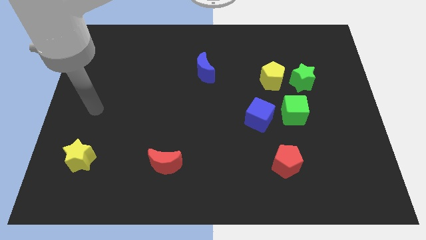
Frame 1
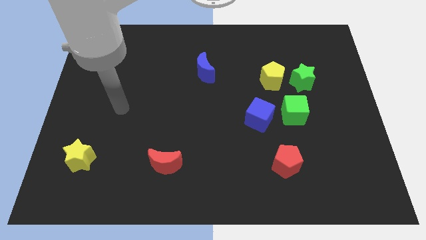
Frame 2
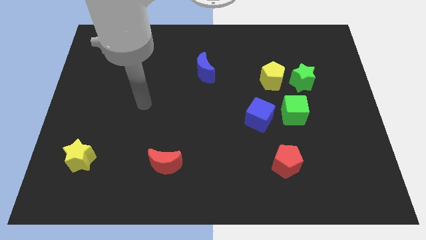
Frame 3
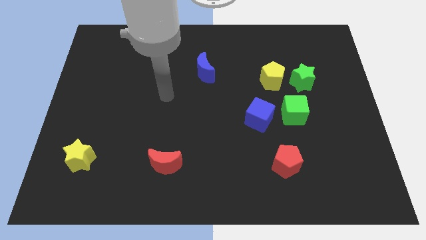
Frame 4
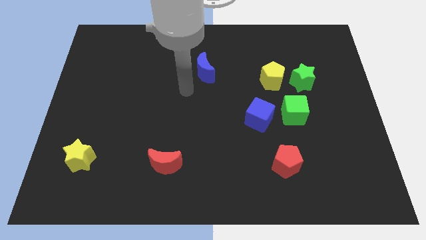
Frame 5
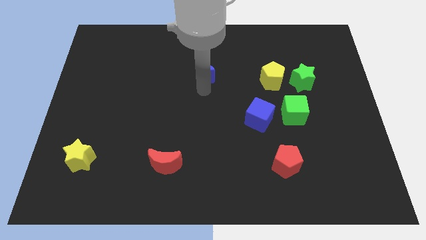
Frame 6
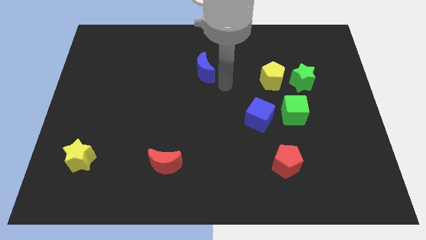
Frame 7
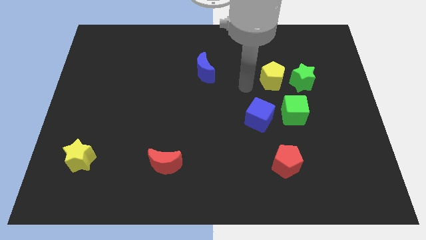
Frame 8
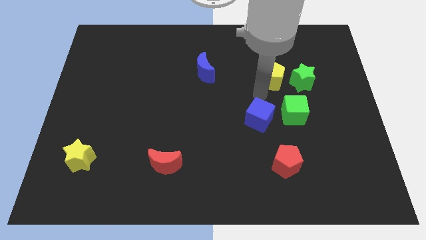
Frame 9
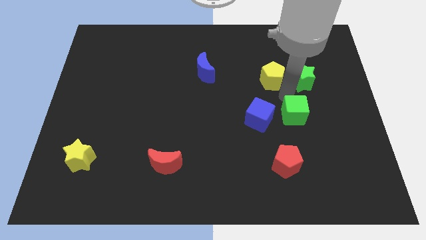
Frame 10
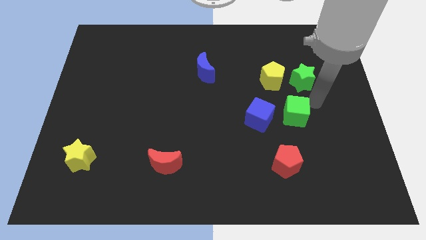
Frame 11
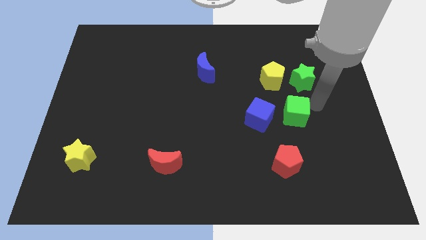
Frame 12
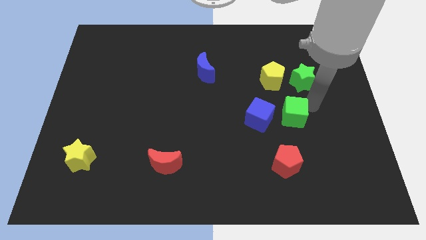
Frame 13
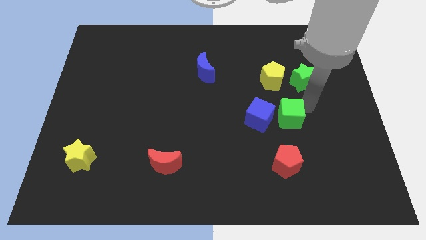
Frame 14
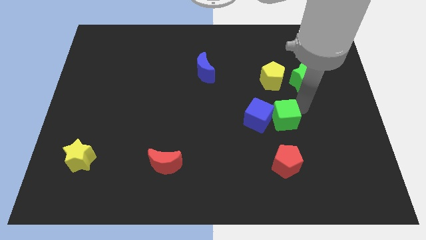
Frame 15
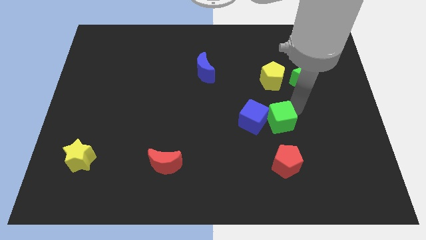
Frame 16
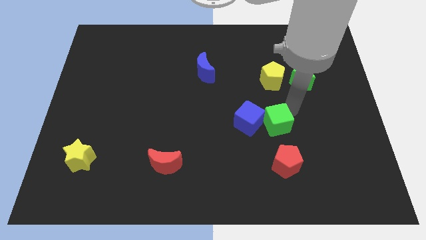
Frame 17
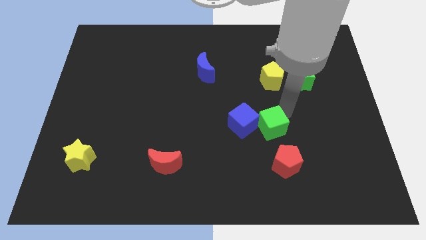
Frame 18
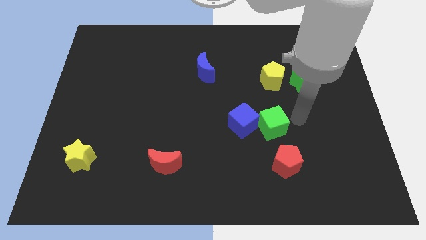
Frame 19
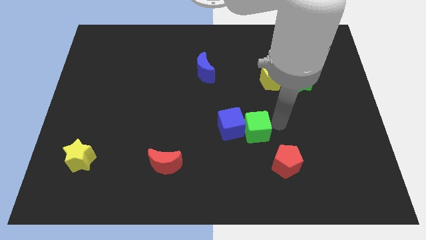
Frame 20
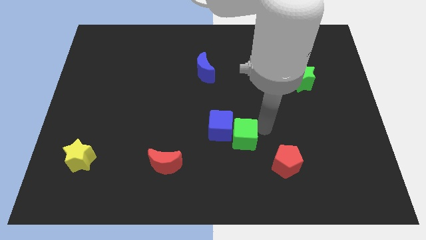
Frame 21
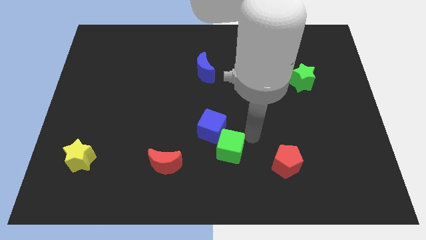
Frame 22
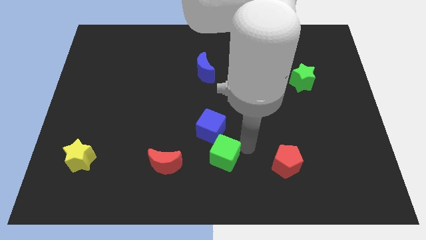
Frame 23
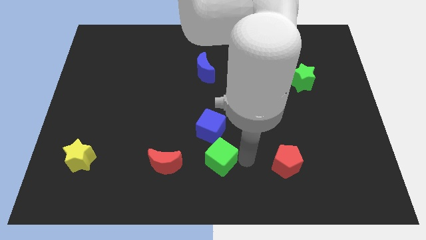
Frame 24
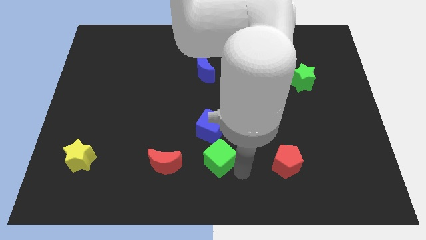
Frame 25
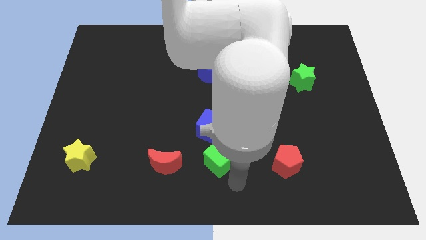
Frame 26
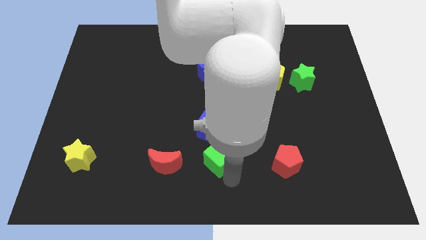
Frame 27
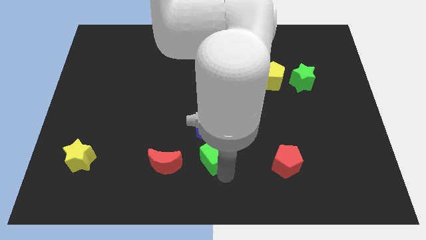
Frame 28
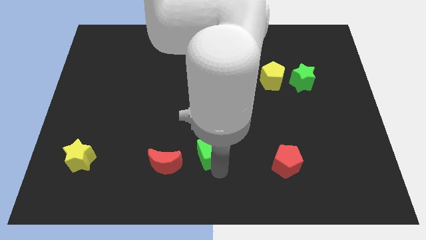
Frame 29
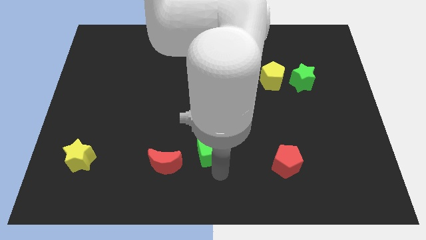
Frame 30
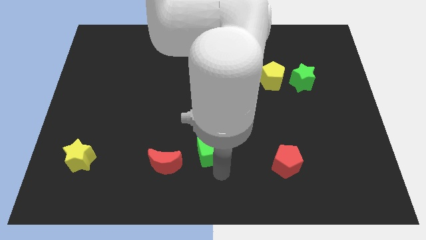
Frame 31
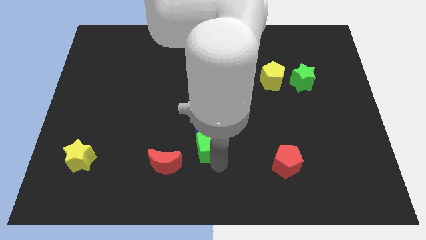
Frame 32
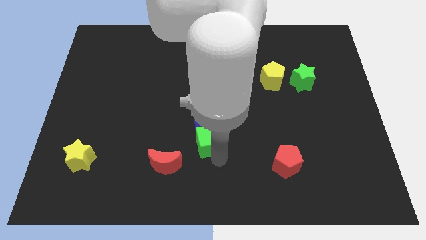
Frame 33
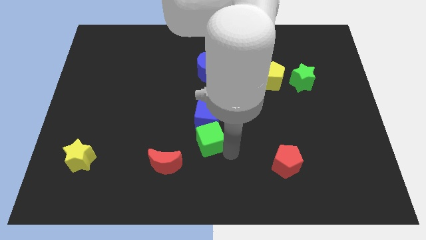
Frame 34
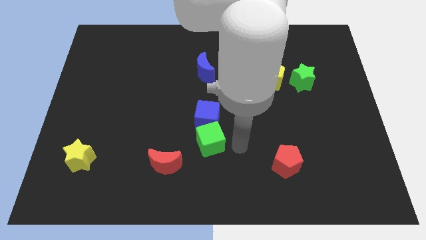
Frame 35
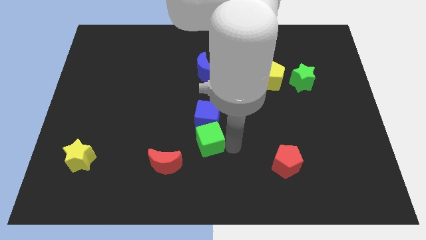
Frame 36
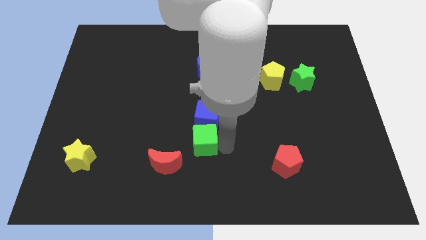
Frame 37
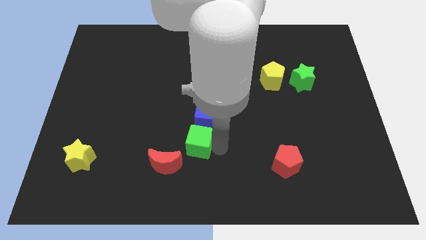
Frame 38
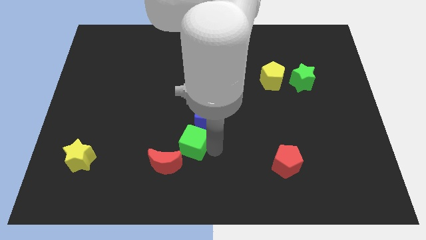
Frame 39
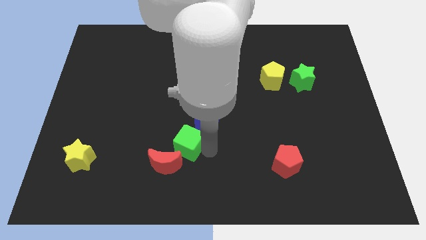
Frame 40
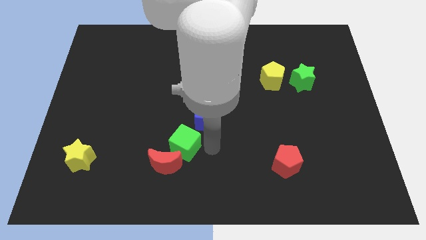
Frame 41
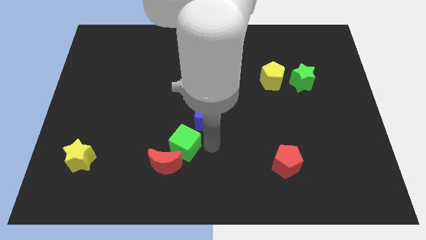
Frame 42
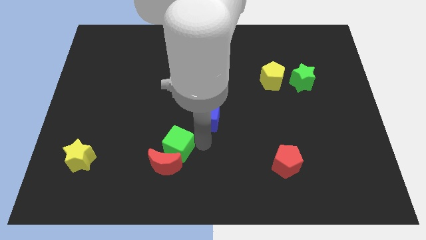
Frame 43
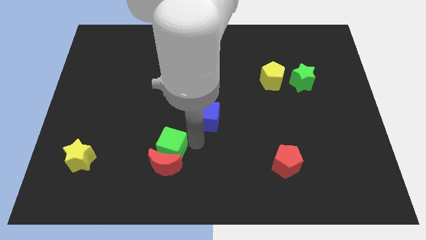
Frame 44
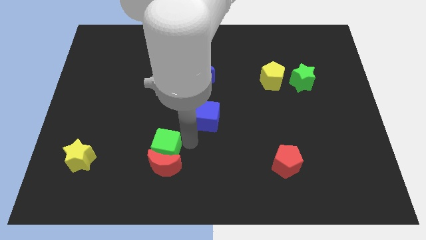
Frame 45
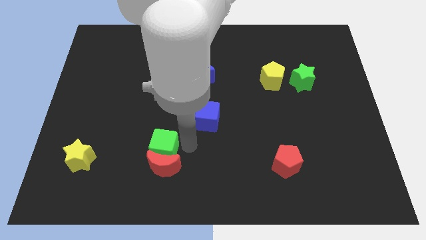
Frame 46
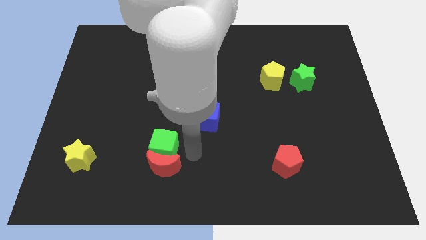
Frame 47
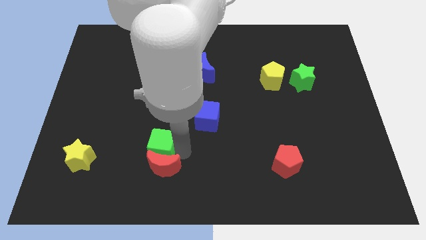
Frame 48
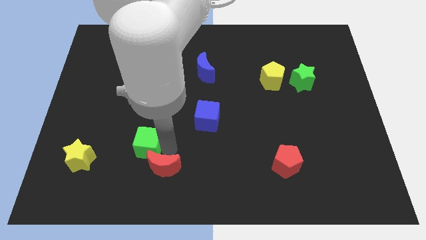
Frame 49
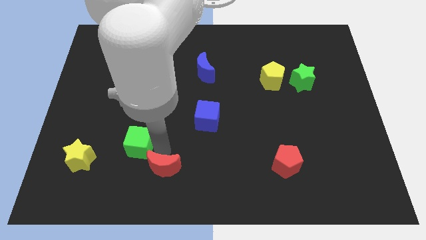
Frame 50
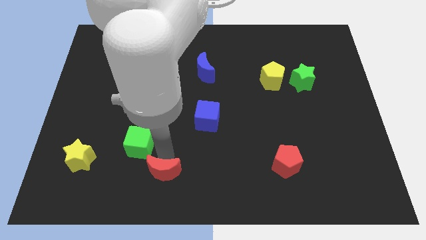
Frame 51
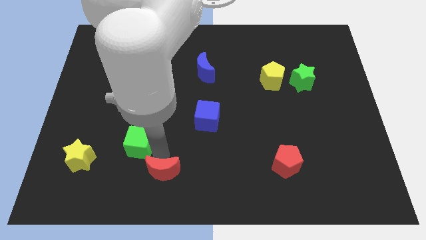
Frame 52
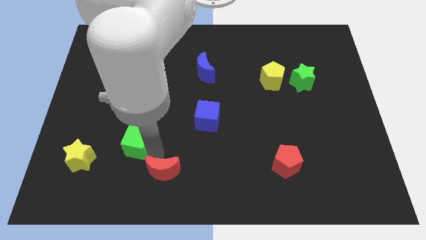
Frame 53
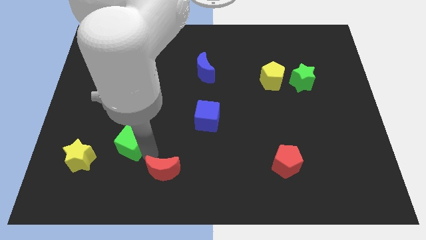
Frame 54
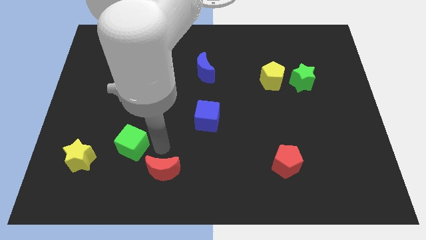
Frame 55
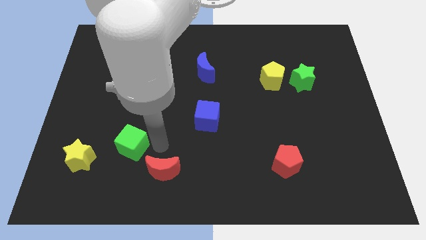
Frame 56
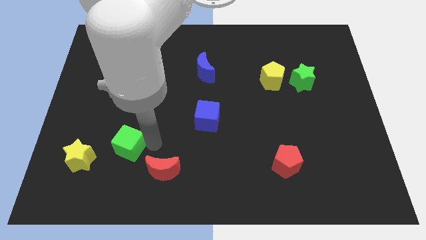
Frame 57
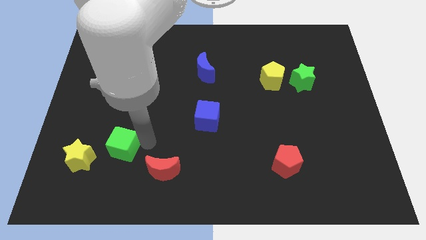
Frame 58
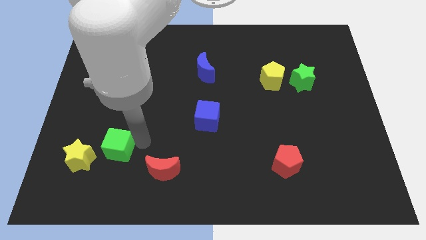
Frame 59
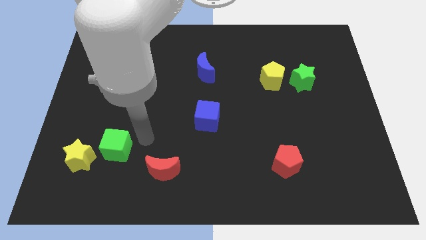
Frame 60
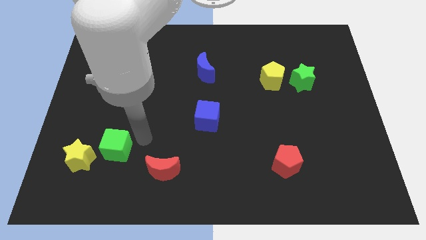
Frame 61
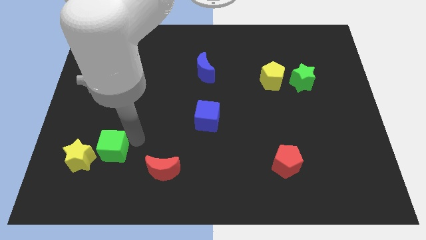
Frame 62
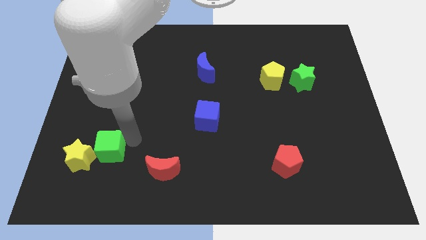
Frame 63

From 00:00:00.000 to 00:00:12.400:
slide the green cube next to the yellow star
